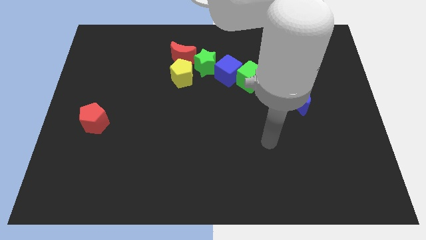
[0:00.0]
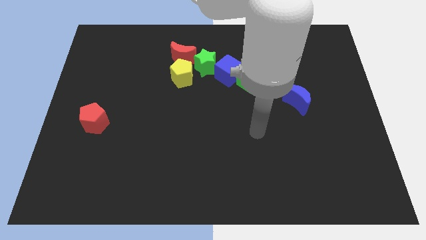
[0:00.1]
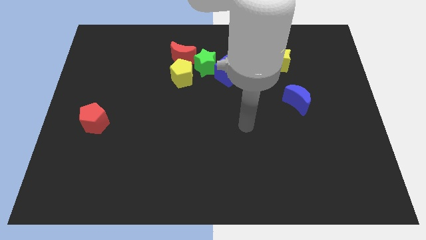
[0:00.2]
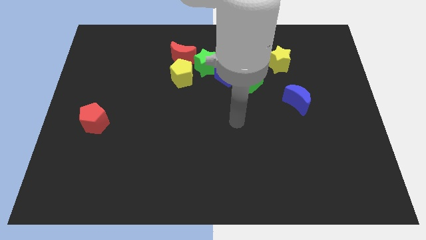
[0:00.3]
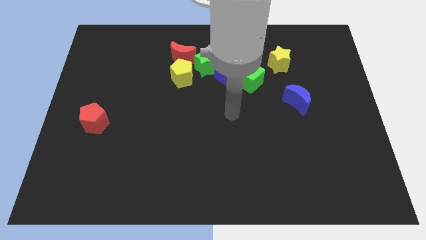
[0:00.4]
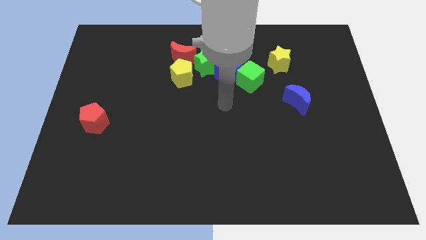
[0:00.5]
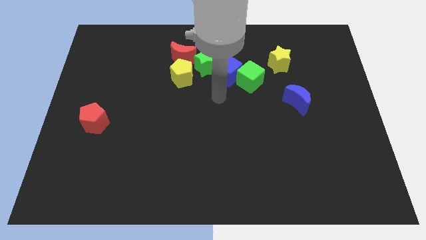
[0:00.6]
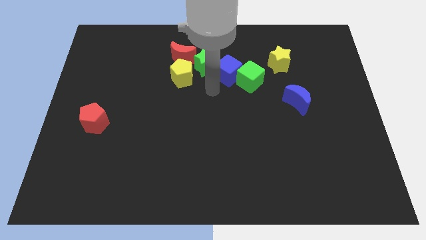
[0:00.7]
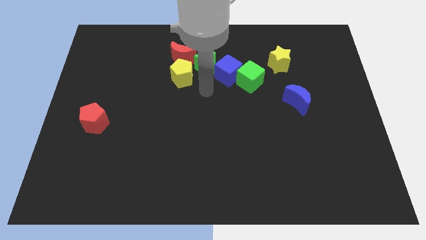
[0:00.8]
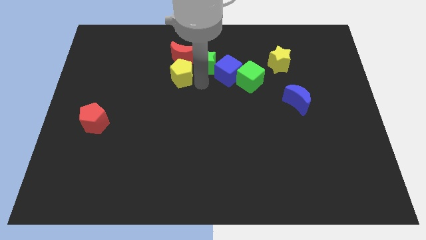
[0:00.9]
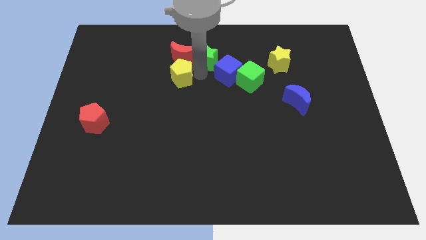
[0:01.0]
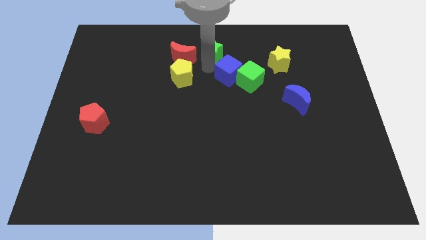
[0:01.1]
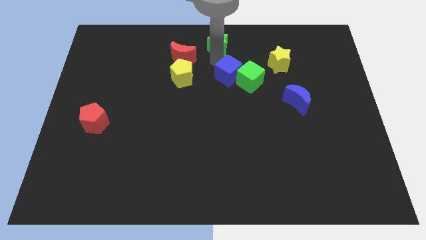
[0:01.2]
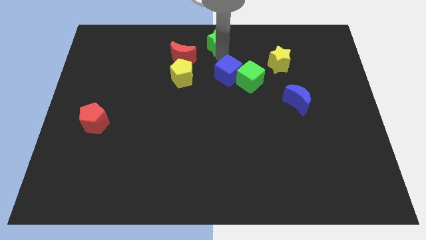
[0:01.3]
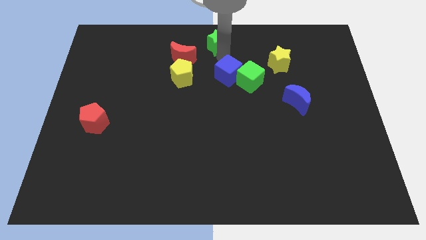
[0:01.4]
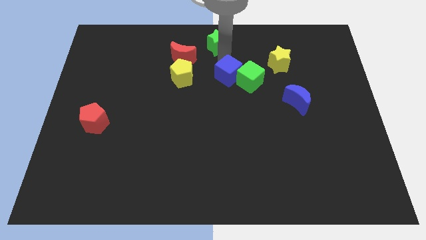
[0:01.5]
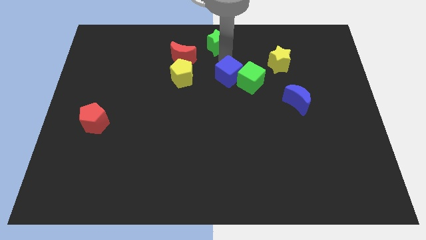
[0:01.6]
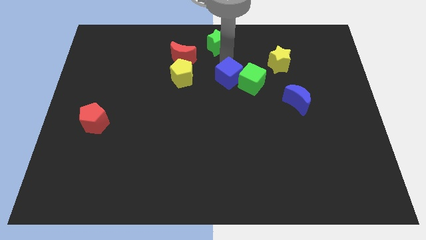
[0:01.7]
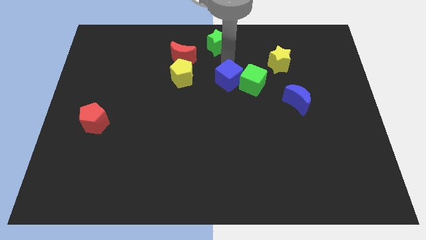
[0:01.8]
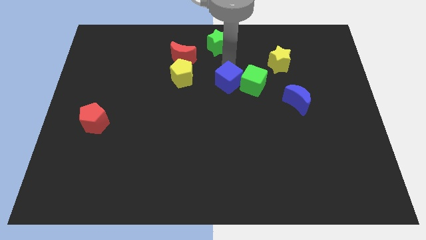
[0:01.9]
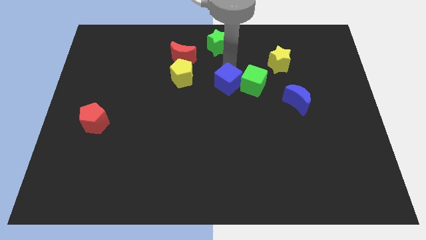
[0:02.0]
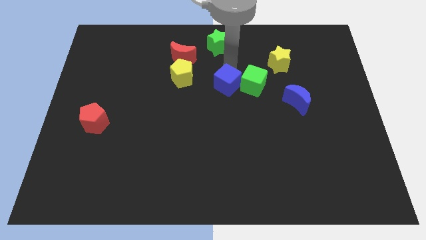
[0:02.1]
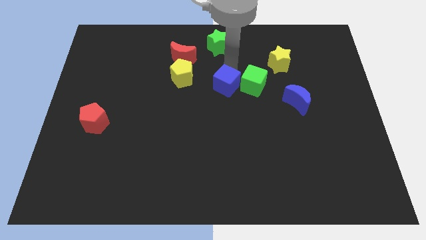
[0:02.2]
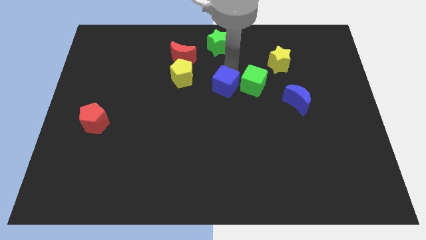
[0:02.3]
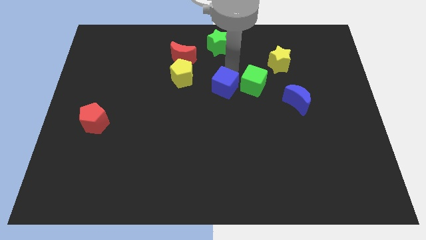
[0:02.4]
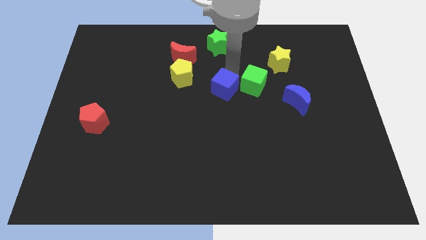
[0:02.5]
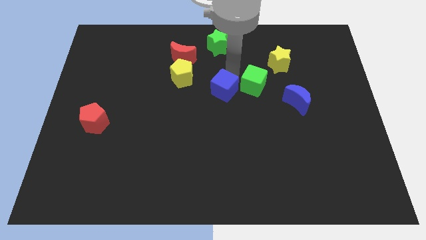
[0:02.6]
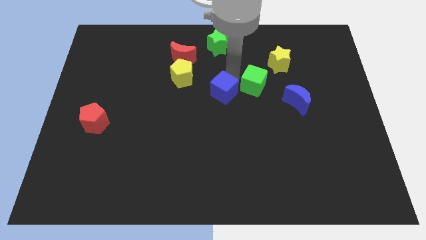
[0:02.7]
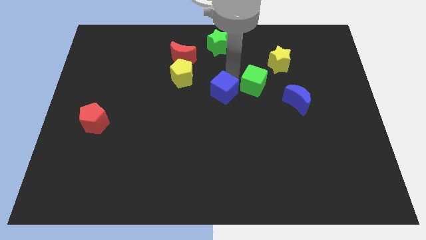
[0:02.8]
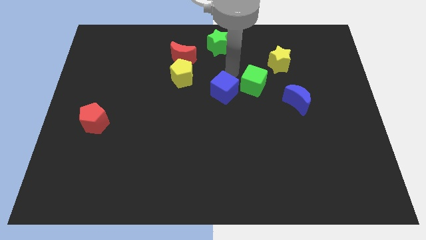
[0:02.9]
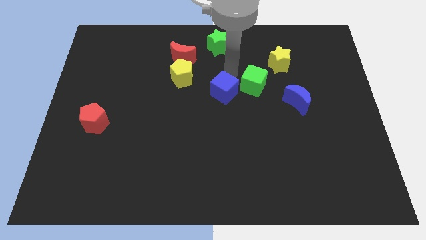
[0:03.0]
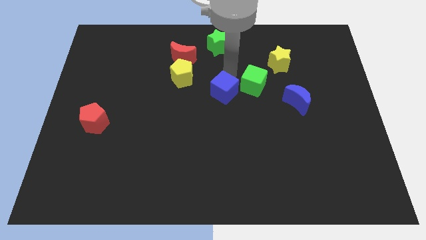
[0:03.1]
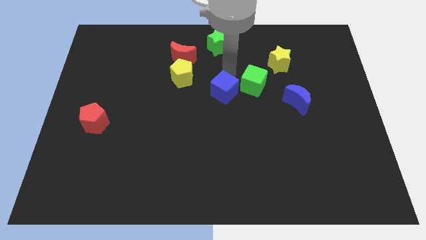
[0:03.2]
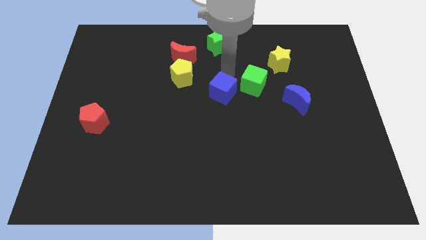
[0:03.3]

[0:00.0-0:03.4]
move the blue cube away from the green cube and green star

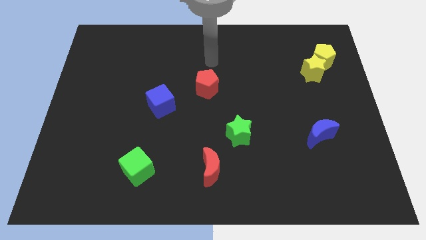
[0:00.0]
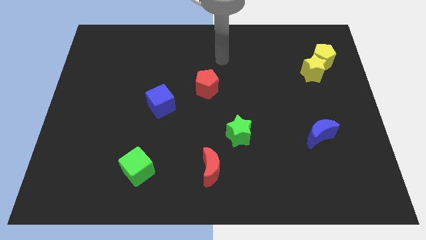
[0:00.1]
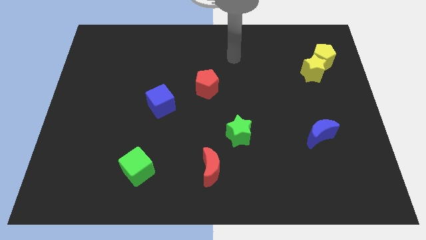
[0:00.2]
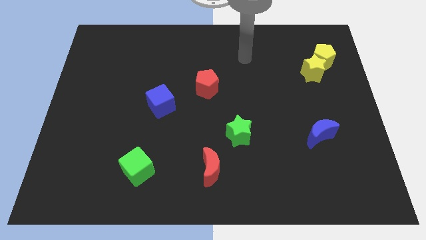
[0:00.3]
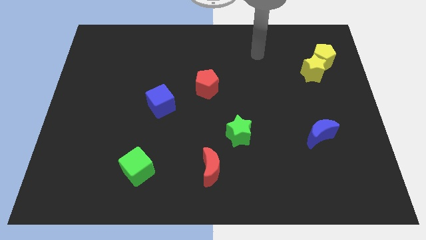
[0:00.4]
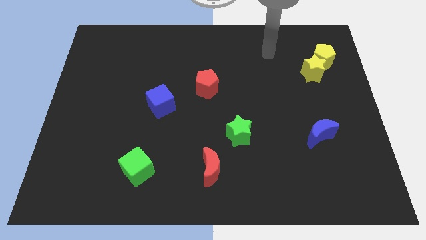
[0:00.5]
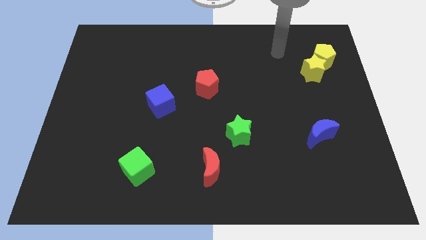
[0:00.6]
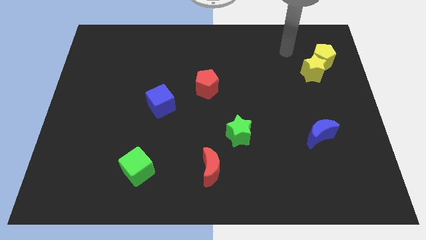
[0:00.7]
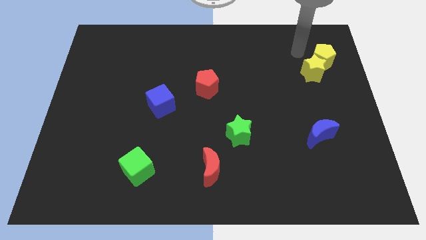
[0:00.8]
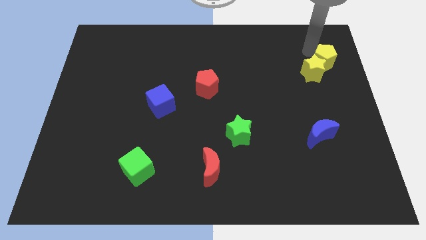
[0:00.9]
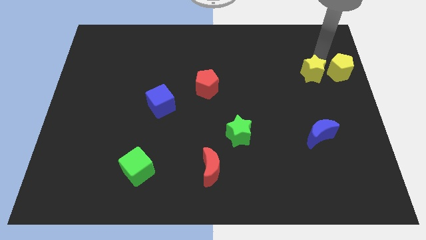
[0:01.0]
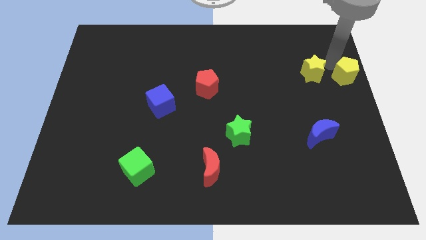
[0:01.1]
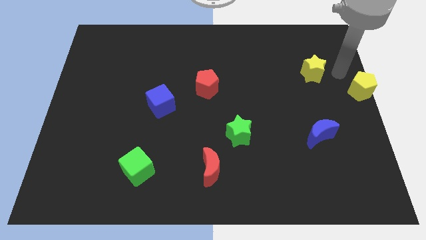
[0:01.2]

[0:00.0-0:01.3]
separate the yellow star from the yellow pentagon

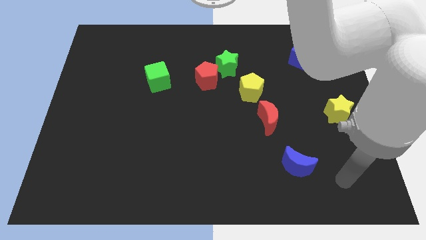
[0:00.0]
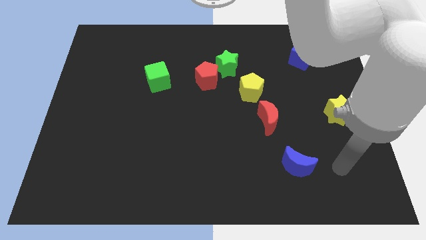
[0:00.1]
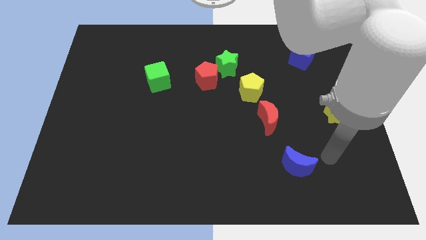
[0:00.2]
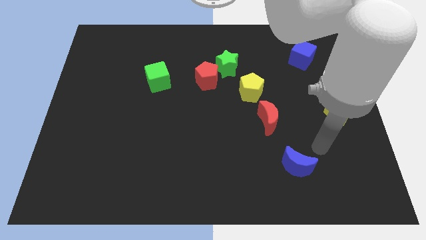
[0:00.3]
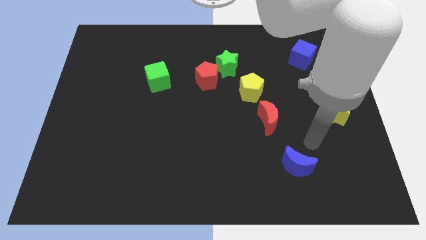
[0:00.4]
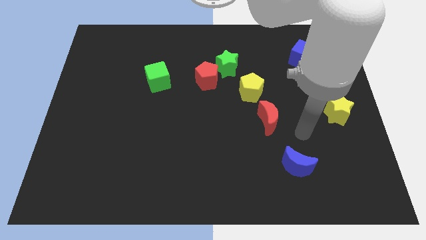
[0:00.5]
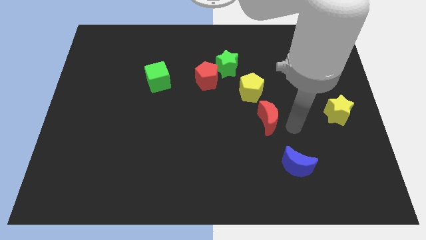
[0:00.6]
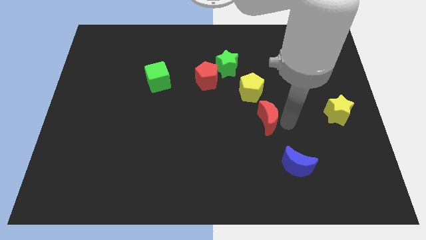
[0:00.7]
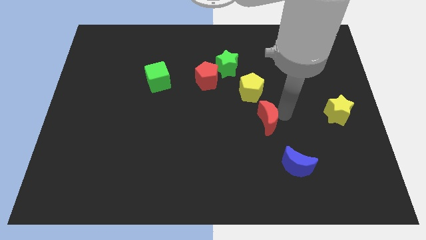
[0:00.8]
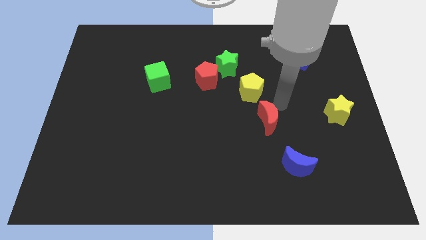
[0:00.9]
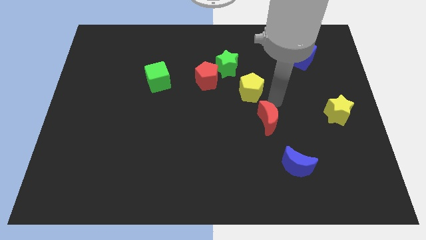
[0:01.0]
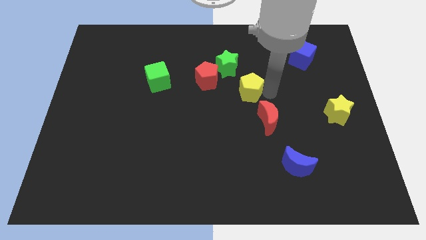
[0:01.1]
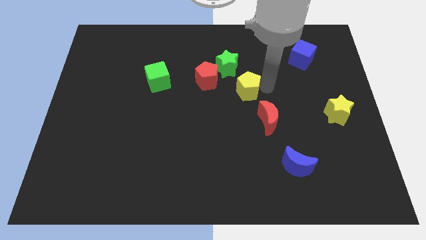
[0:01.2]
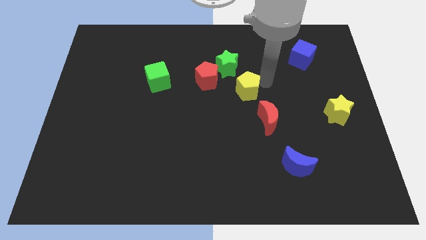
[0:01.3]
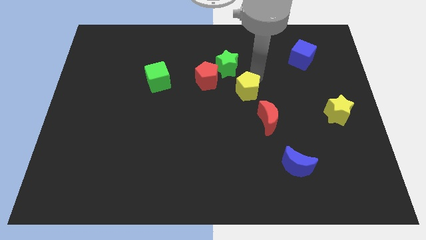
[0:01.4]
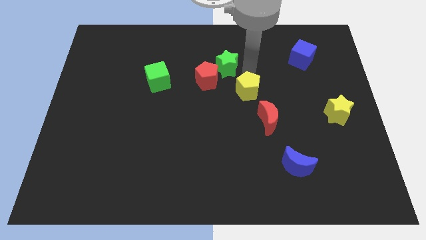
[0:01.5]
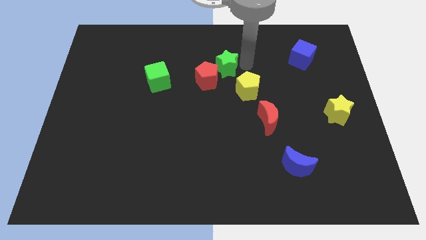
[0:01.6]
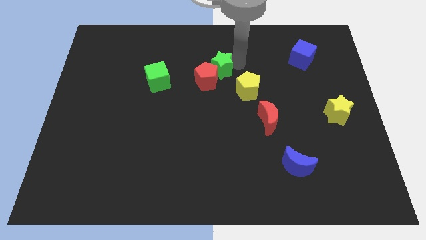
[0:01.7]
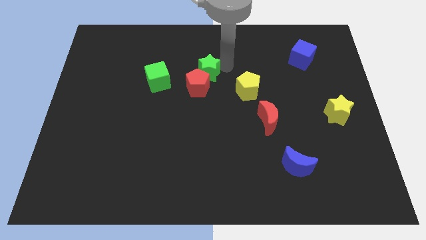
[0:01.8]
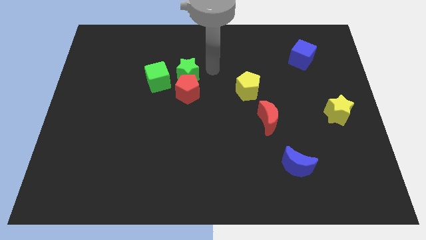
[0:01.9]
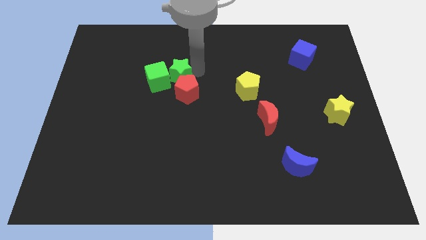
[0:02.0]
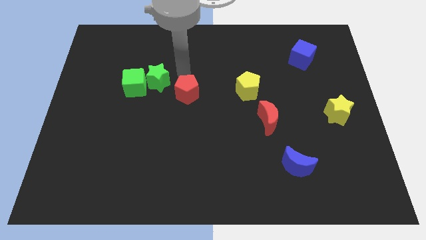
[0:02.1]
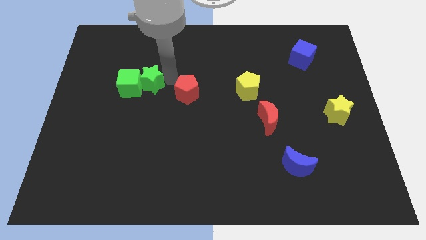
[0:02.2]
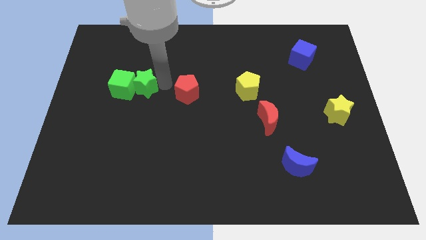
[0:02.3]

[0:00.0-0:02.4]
pull the red pentagon apart from the green star

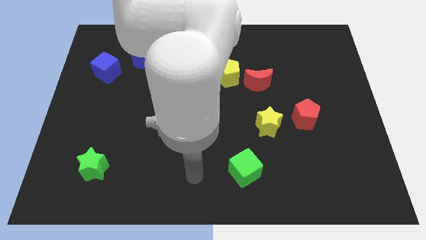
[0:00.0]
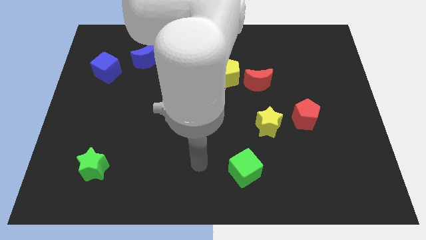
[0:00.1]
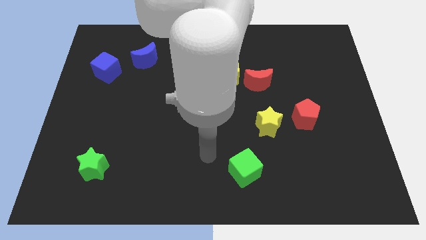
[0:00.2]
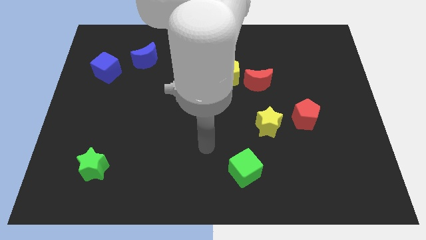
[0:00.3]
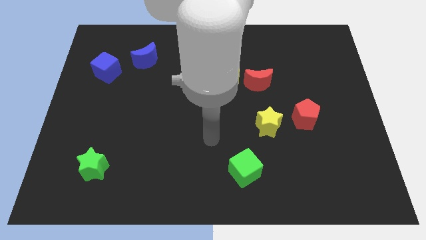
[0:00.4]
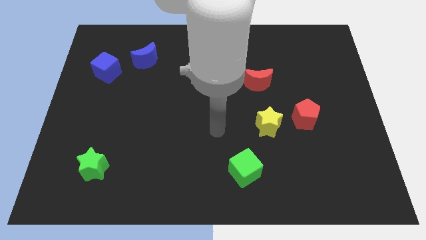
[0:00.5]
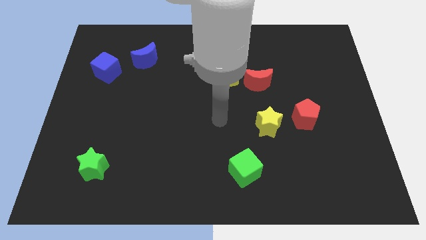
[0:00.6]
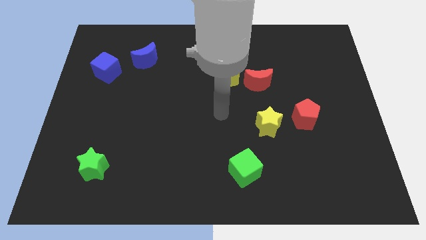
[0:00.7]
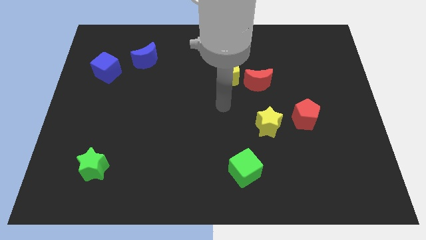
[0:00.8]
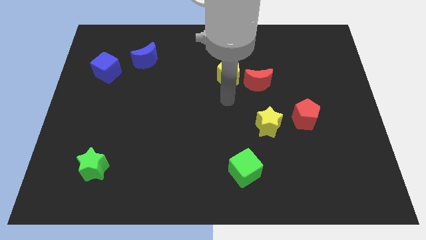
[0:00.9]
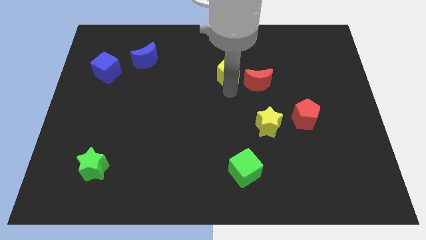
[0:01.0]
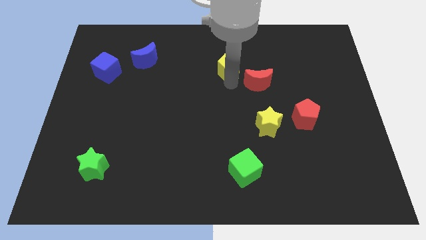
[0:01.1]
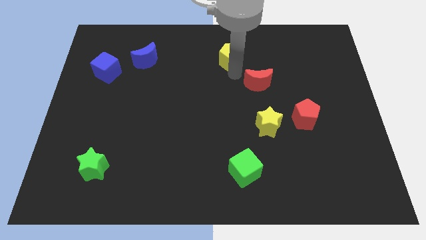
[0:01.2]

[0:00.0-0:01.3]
separate the red moon from the yellow pentagon

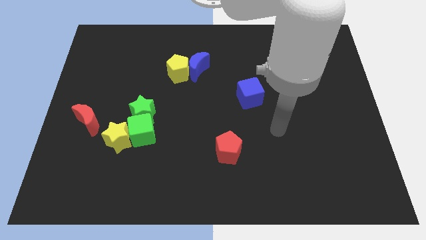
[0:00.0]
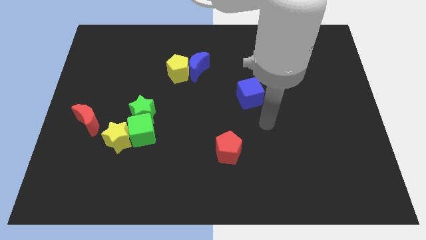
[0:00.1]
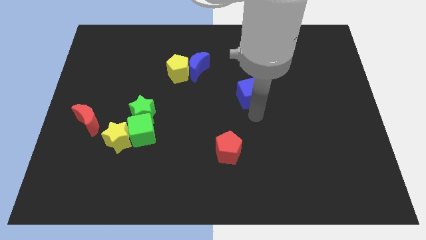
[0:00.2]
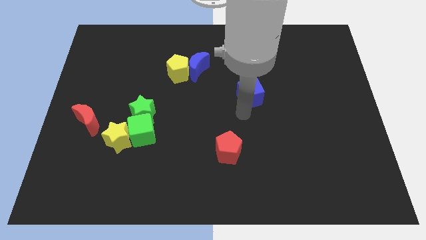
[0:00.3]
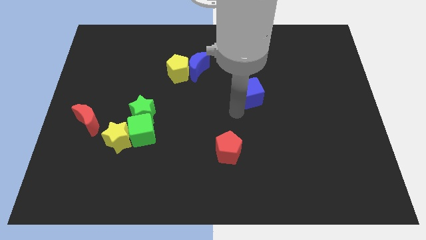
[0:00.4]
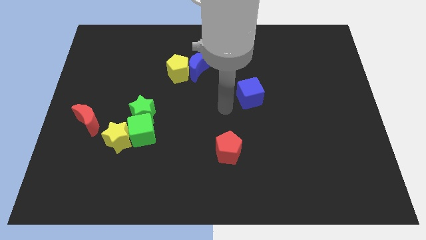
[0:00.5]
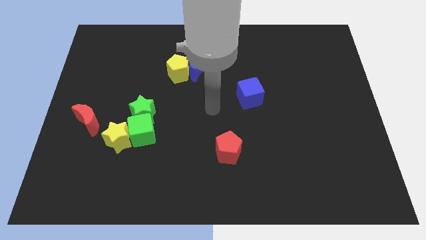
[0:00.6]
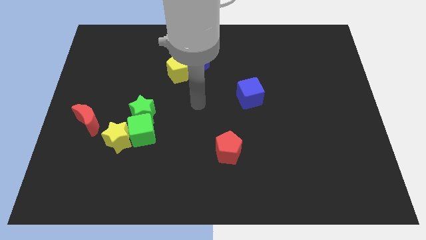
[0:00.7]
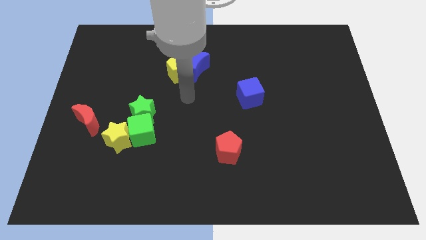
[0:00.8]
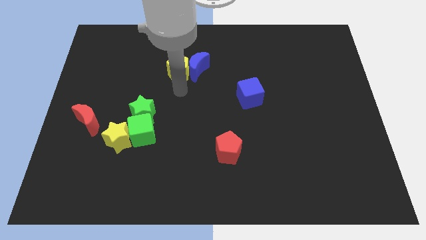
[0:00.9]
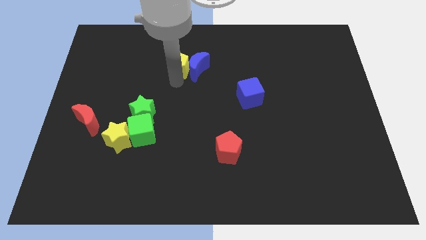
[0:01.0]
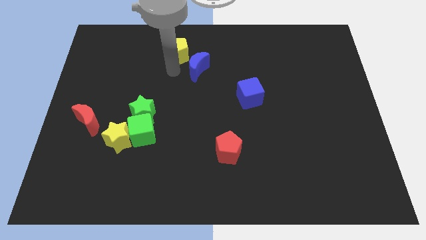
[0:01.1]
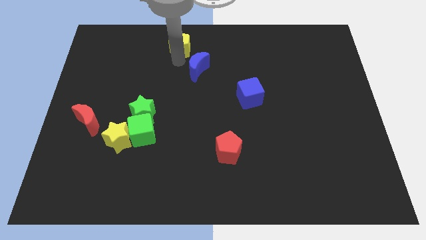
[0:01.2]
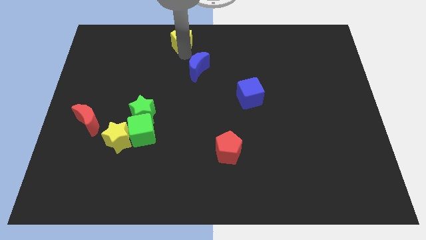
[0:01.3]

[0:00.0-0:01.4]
pull the blue moon apart from the yellow pentagon
